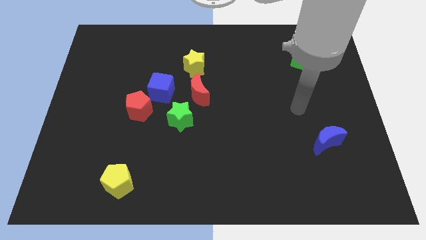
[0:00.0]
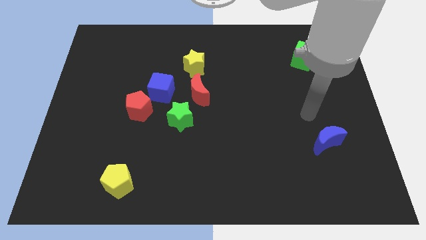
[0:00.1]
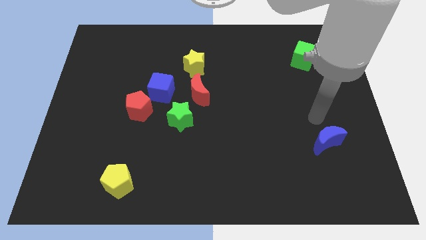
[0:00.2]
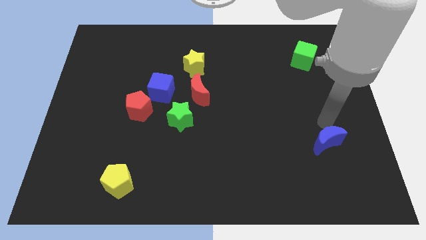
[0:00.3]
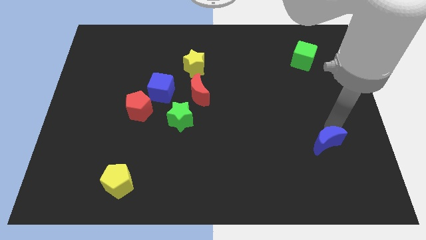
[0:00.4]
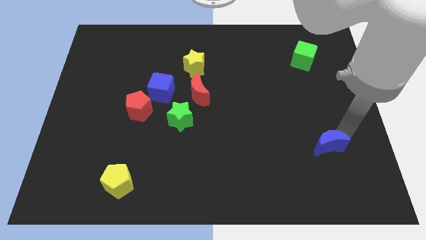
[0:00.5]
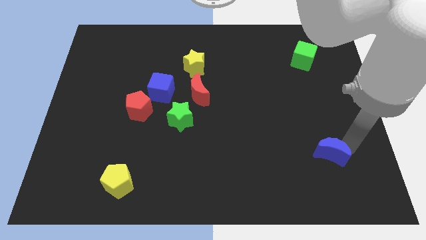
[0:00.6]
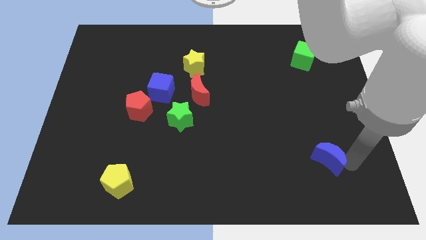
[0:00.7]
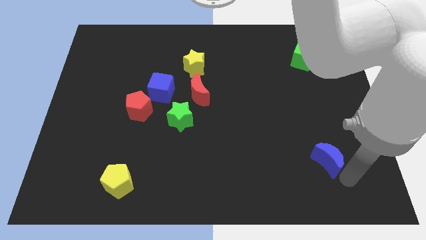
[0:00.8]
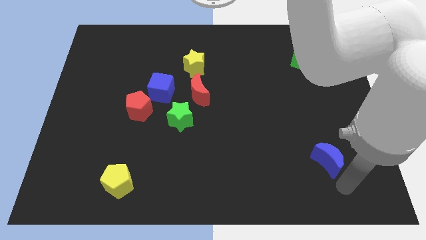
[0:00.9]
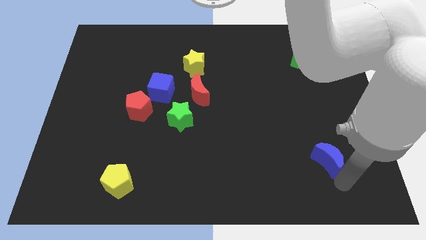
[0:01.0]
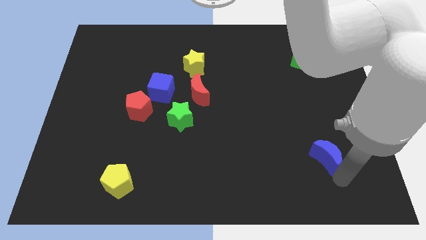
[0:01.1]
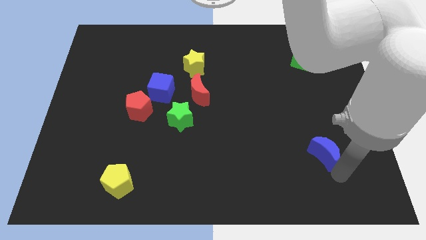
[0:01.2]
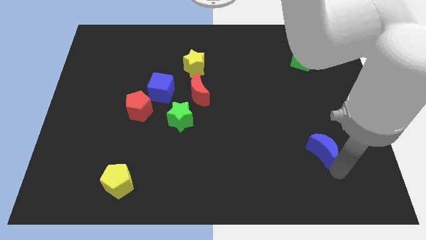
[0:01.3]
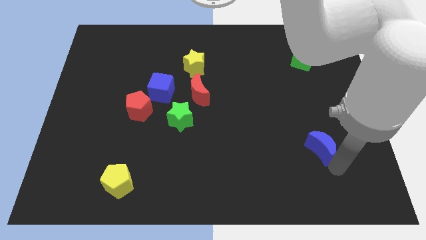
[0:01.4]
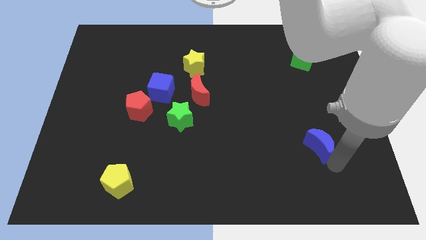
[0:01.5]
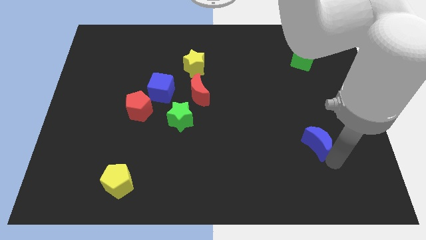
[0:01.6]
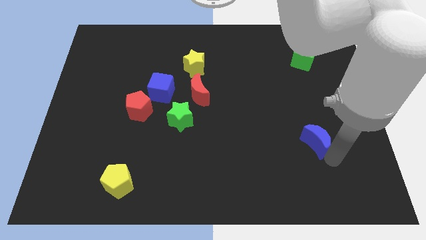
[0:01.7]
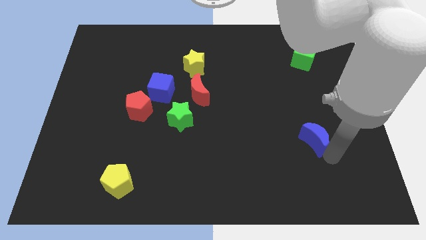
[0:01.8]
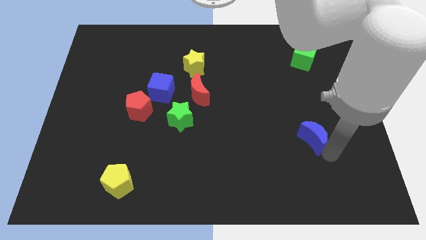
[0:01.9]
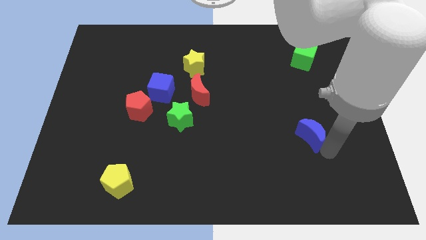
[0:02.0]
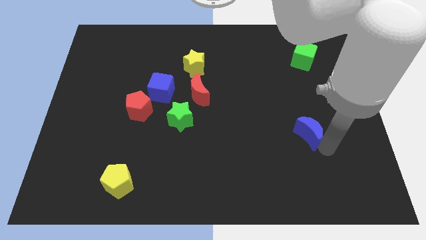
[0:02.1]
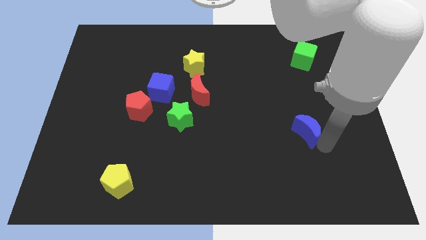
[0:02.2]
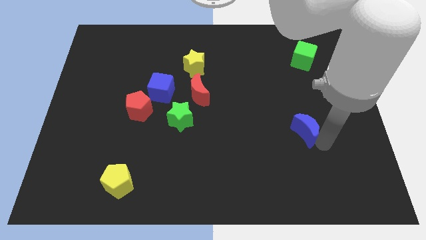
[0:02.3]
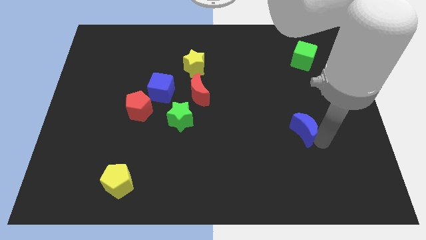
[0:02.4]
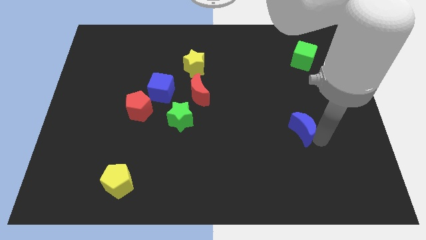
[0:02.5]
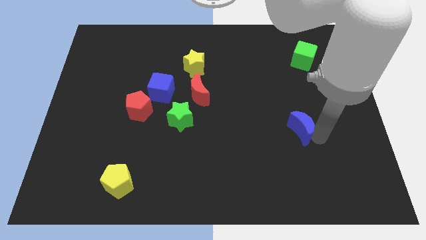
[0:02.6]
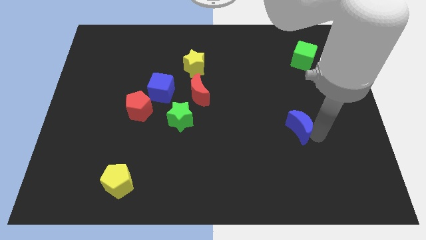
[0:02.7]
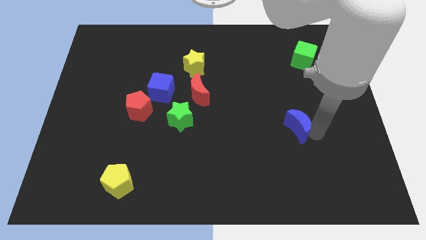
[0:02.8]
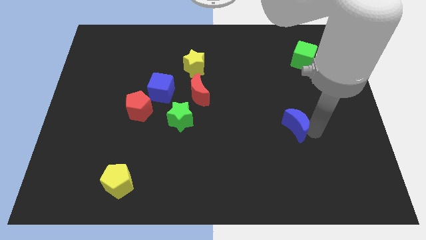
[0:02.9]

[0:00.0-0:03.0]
push the blue moon upwards and left diagonally somewhat

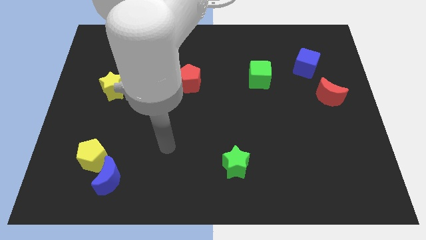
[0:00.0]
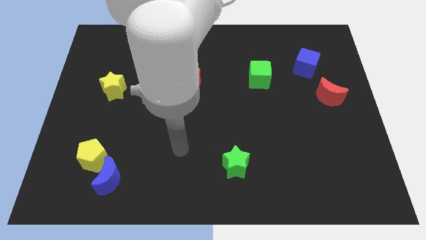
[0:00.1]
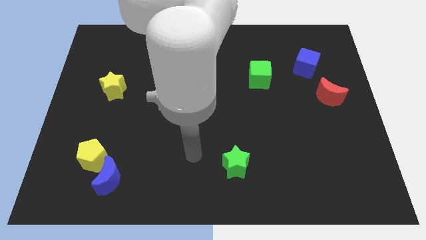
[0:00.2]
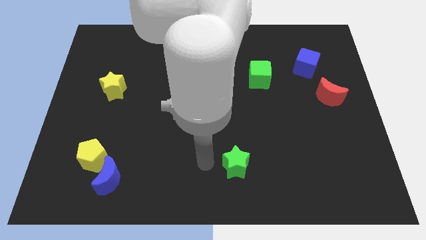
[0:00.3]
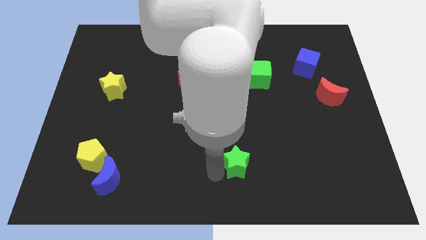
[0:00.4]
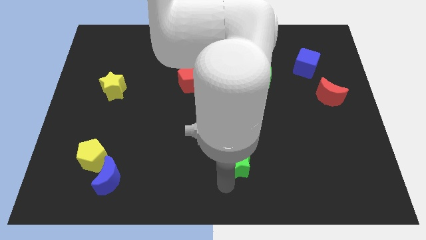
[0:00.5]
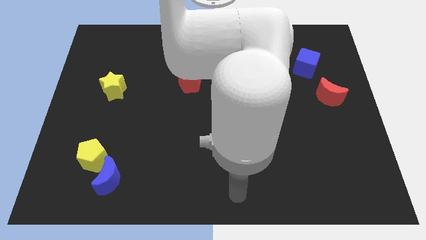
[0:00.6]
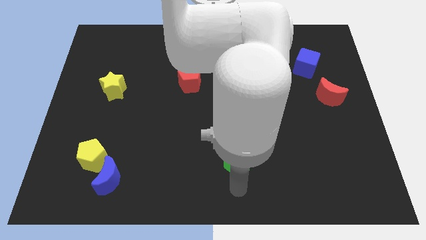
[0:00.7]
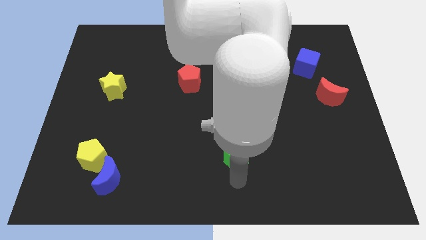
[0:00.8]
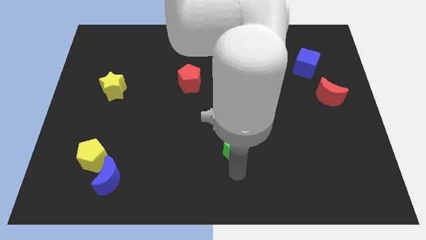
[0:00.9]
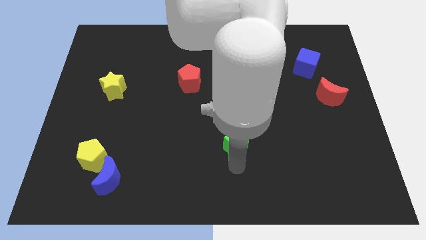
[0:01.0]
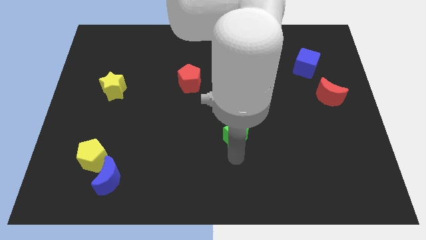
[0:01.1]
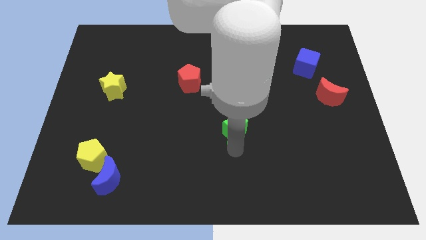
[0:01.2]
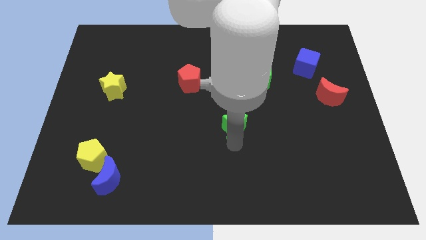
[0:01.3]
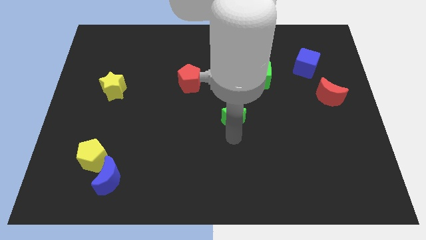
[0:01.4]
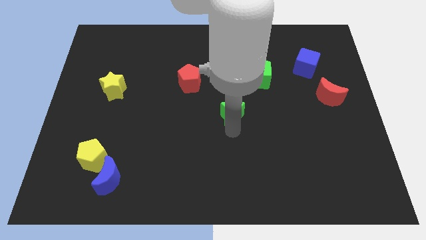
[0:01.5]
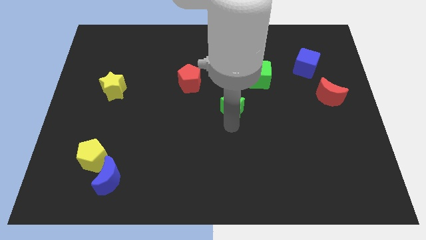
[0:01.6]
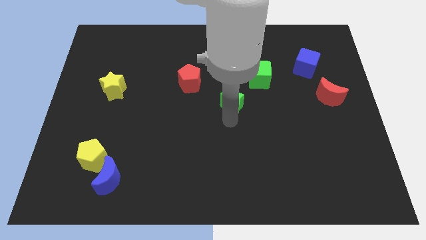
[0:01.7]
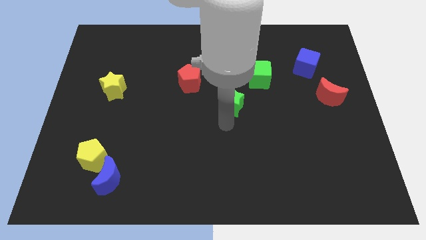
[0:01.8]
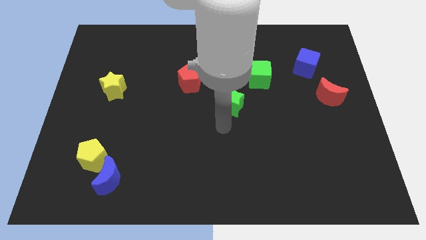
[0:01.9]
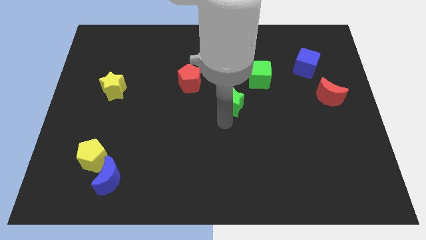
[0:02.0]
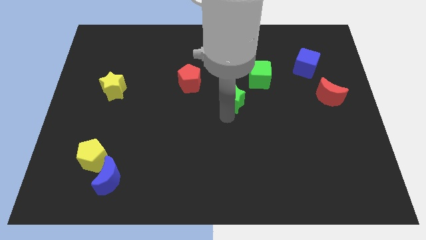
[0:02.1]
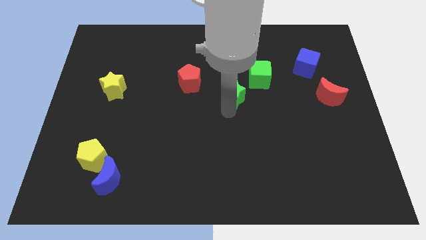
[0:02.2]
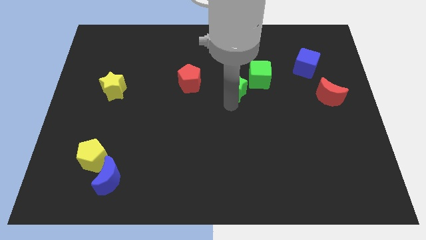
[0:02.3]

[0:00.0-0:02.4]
slide the green star upwards

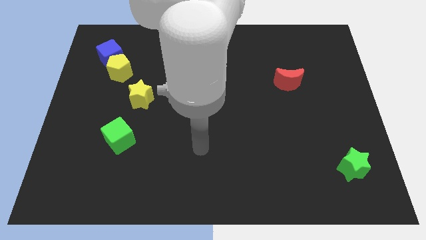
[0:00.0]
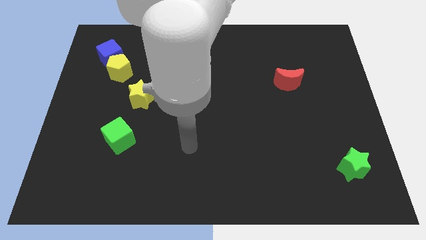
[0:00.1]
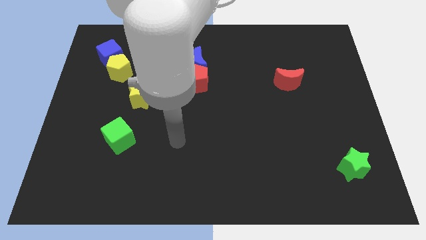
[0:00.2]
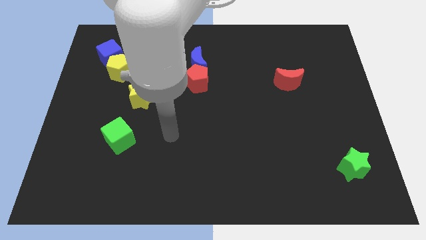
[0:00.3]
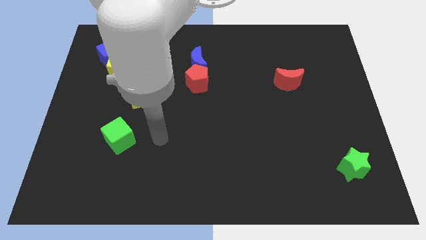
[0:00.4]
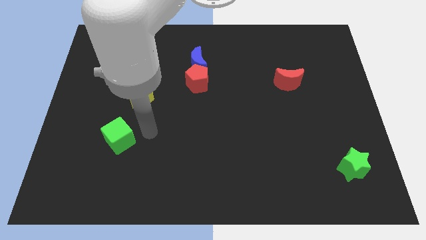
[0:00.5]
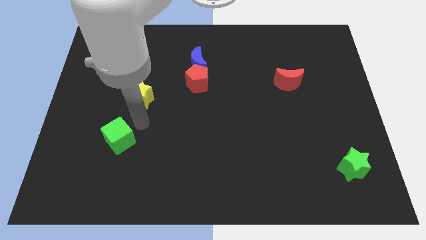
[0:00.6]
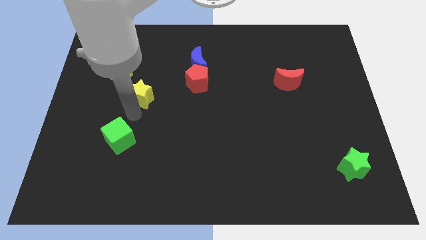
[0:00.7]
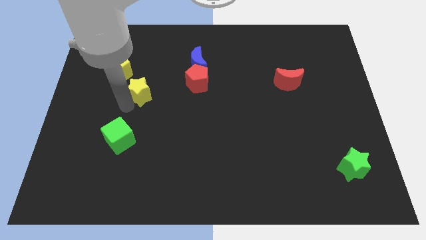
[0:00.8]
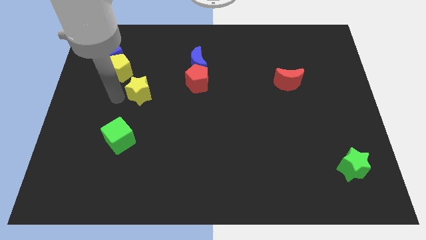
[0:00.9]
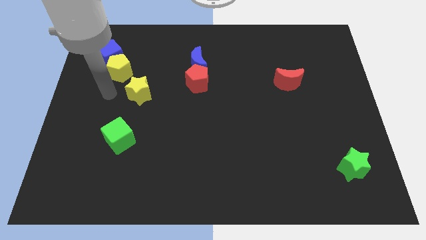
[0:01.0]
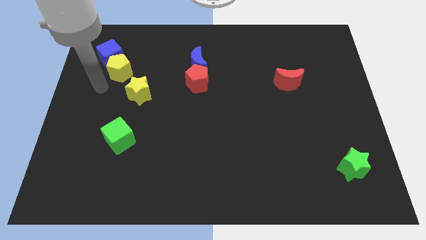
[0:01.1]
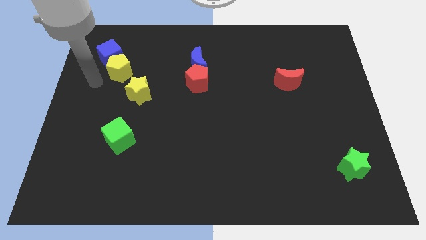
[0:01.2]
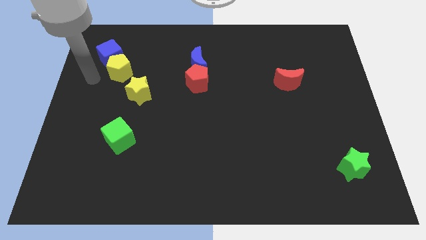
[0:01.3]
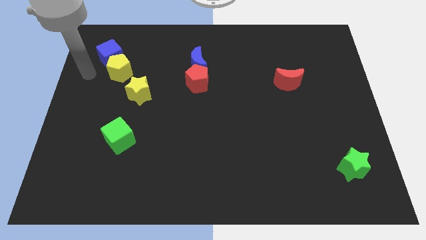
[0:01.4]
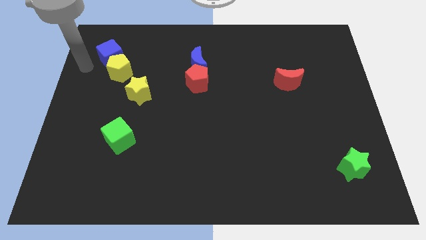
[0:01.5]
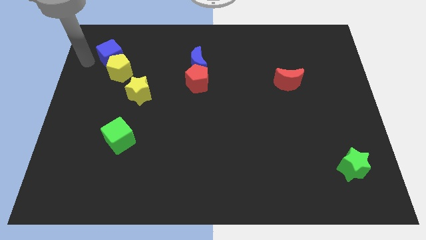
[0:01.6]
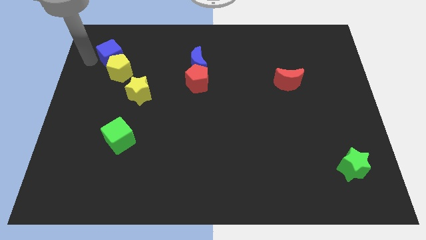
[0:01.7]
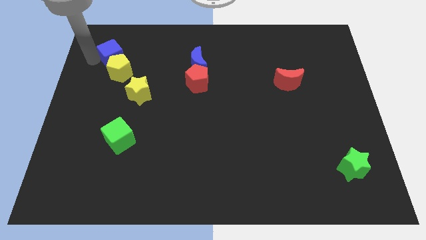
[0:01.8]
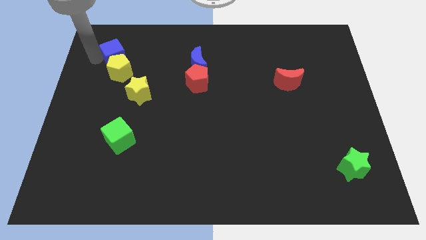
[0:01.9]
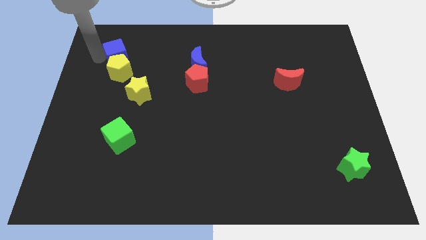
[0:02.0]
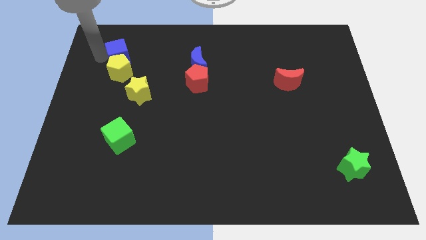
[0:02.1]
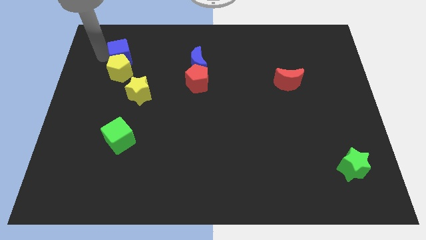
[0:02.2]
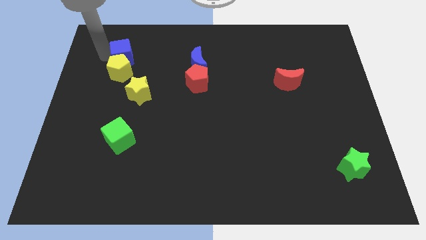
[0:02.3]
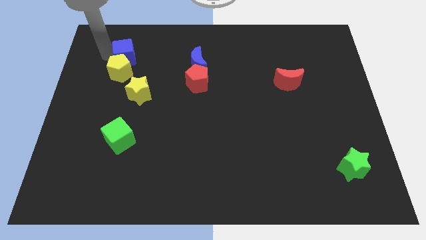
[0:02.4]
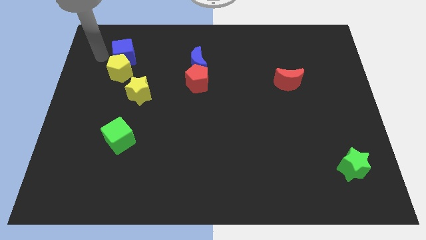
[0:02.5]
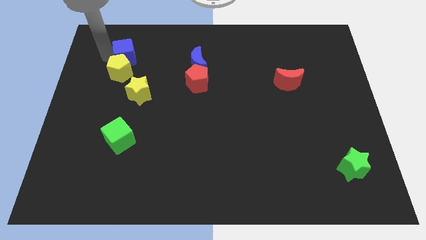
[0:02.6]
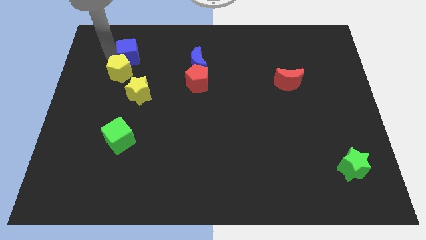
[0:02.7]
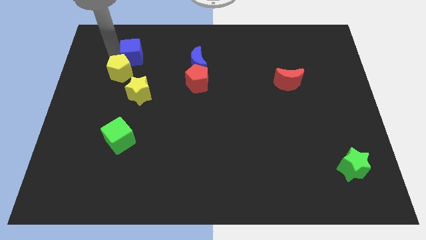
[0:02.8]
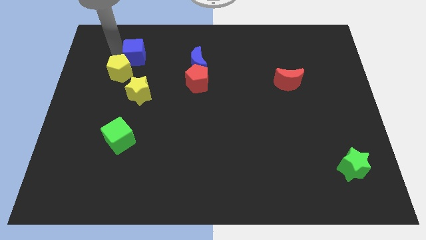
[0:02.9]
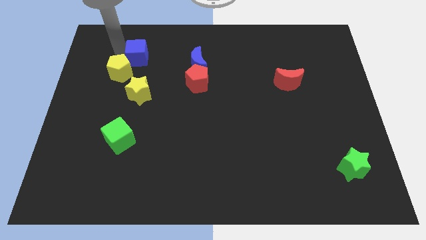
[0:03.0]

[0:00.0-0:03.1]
slide the blue cube a little to the right
